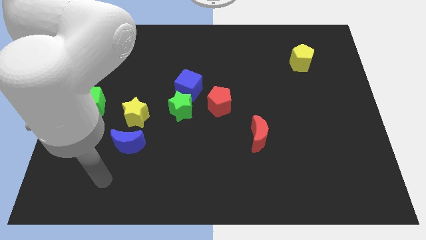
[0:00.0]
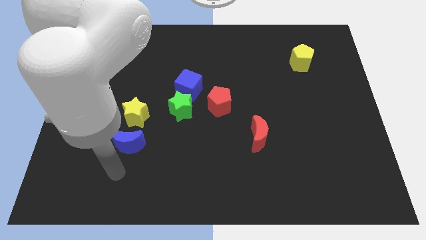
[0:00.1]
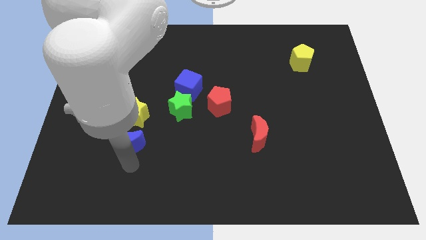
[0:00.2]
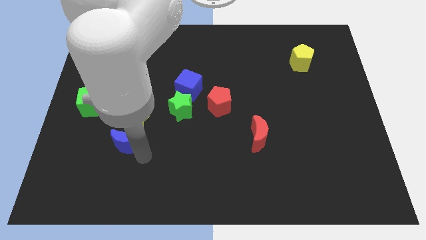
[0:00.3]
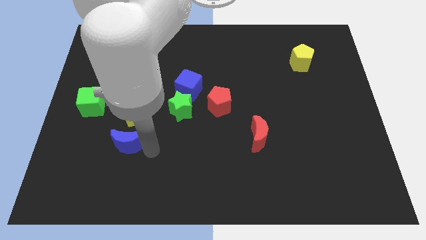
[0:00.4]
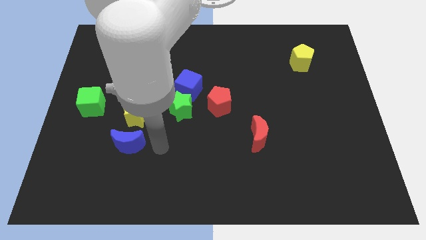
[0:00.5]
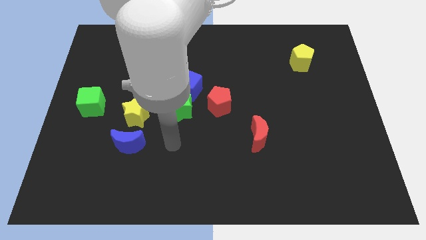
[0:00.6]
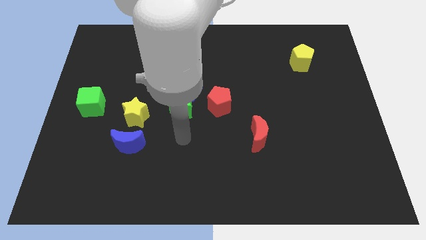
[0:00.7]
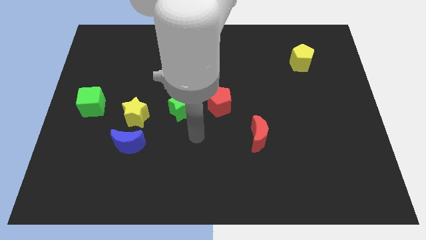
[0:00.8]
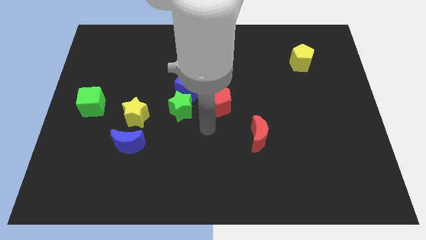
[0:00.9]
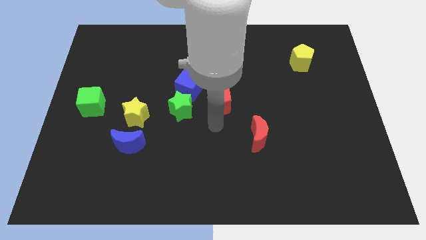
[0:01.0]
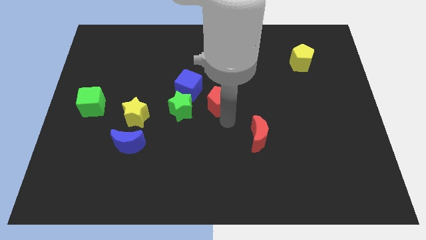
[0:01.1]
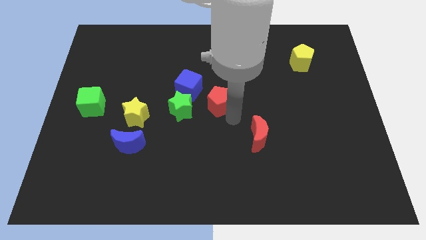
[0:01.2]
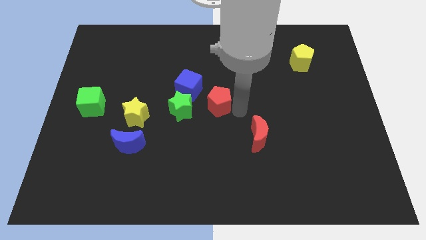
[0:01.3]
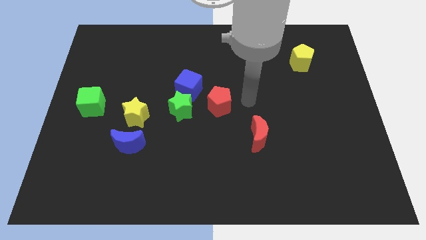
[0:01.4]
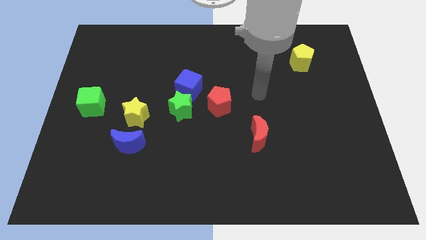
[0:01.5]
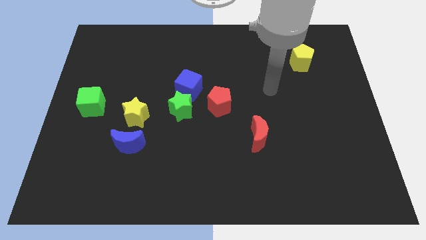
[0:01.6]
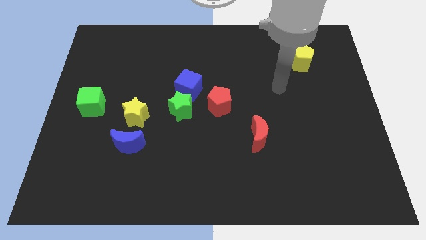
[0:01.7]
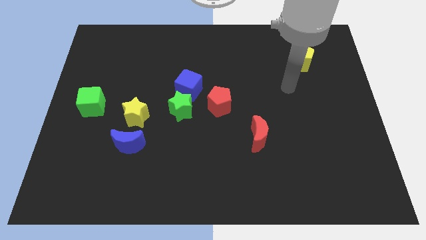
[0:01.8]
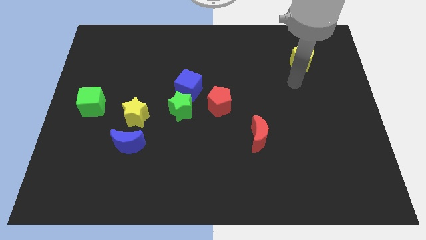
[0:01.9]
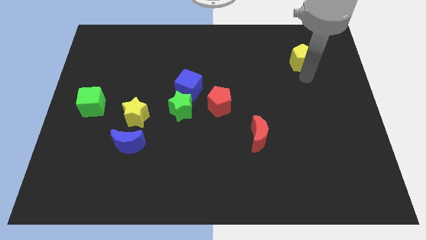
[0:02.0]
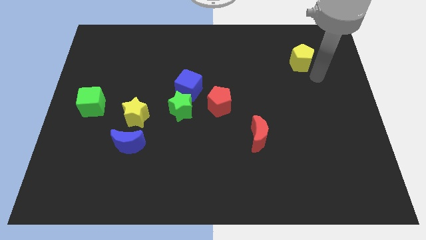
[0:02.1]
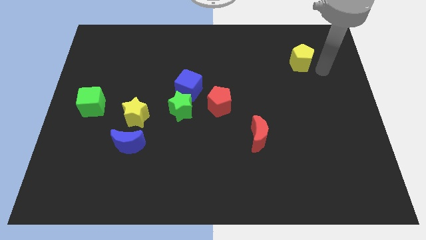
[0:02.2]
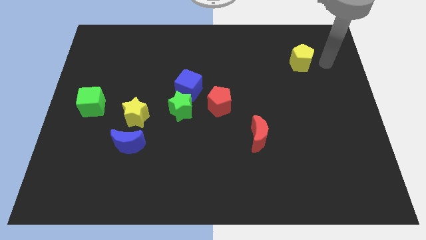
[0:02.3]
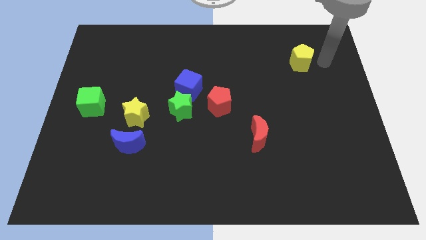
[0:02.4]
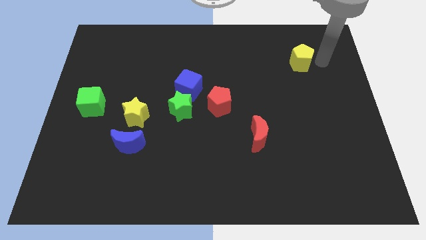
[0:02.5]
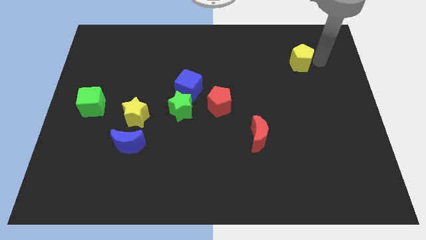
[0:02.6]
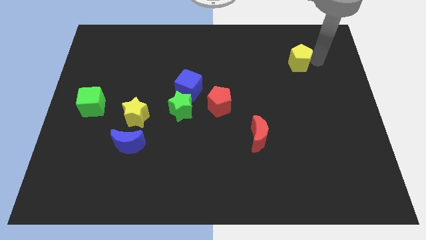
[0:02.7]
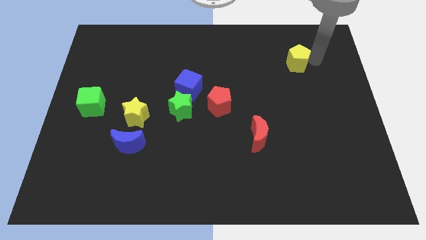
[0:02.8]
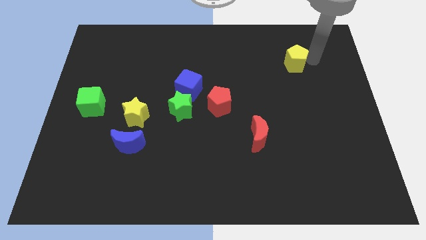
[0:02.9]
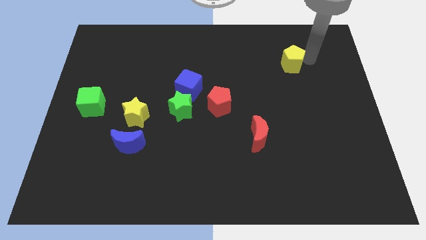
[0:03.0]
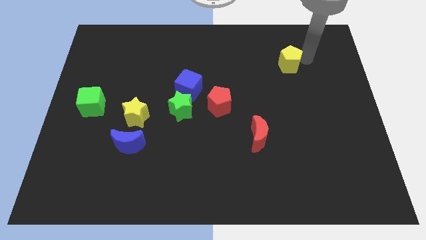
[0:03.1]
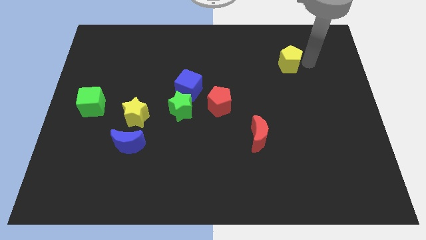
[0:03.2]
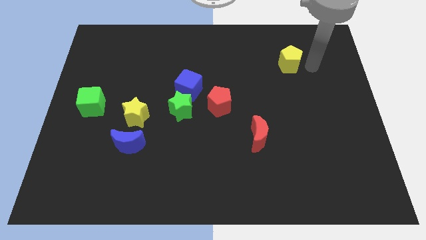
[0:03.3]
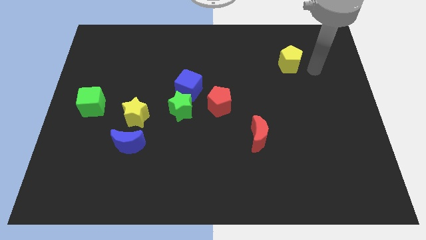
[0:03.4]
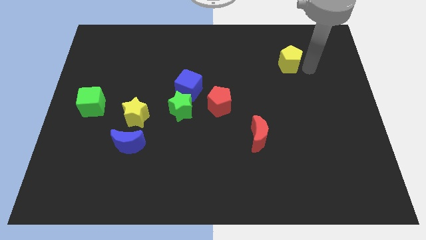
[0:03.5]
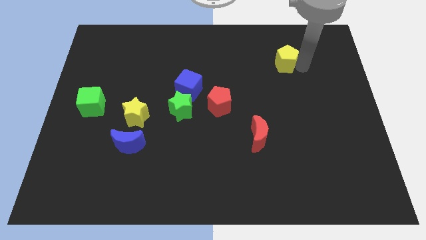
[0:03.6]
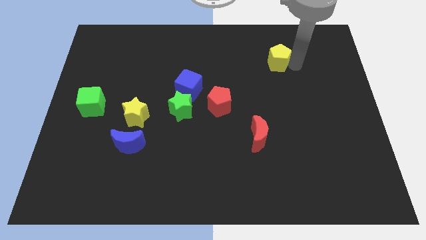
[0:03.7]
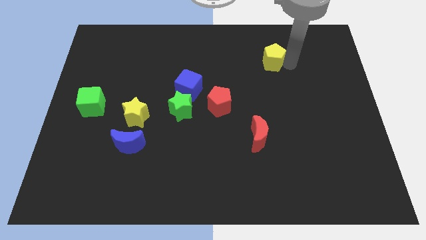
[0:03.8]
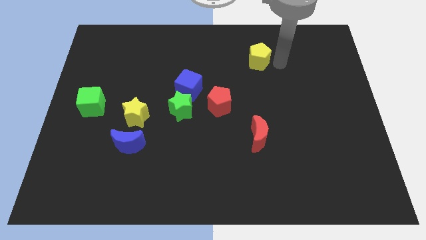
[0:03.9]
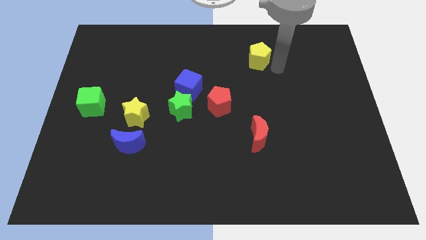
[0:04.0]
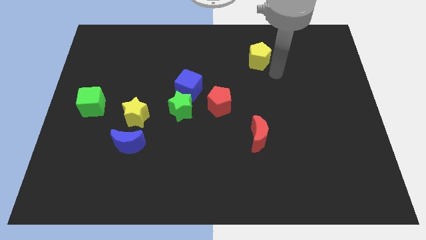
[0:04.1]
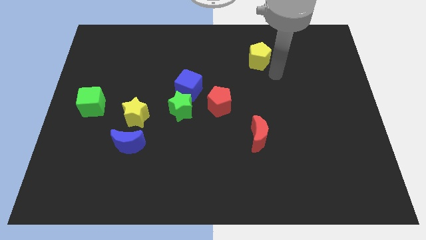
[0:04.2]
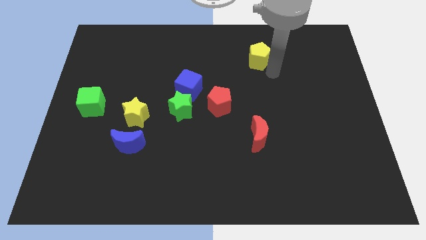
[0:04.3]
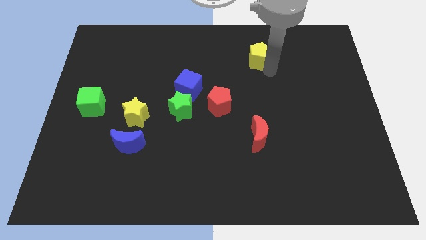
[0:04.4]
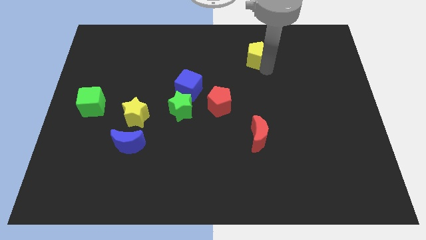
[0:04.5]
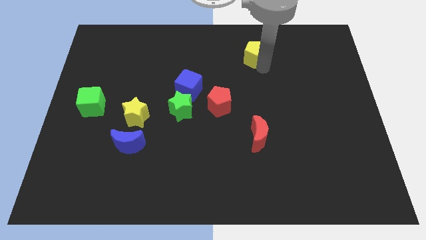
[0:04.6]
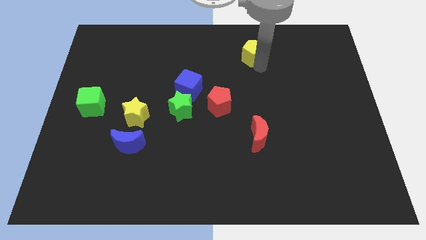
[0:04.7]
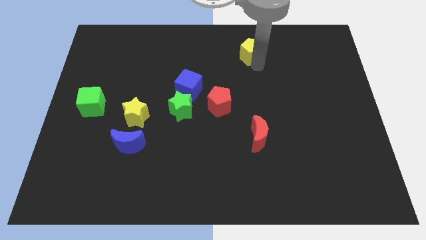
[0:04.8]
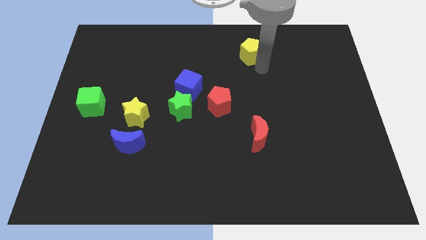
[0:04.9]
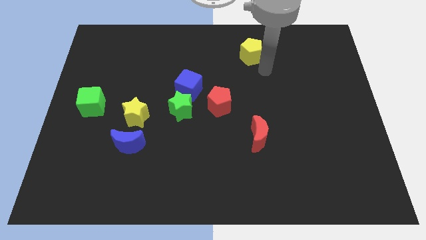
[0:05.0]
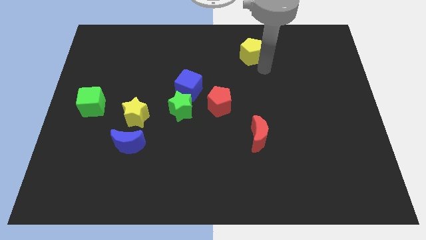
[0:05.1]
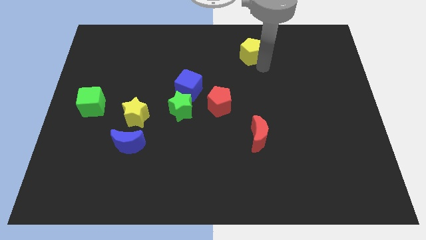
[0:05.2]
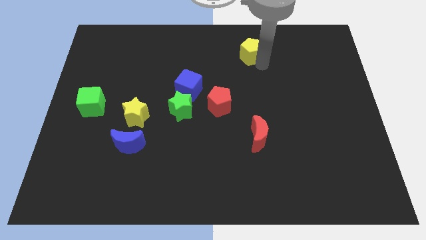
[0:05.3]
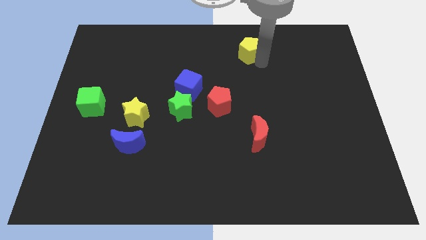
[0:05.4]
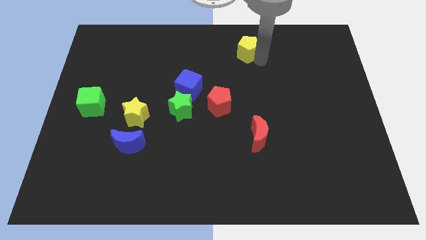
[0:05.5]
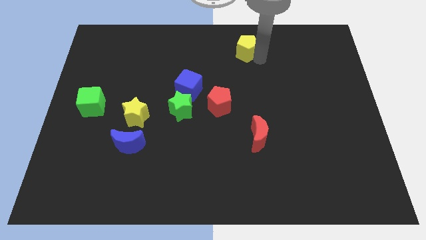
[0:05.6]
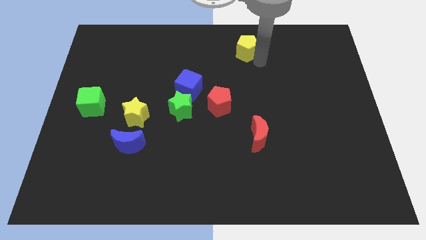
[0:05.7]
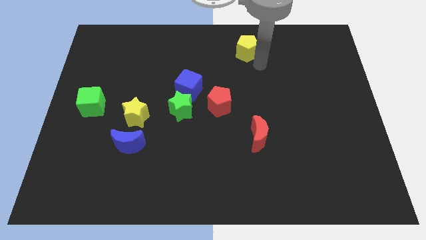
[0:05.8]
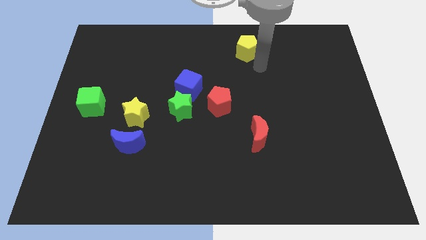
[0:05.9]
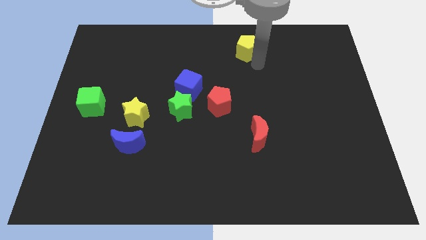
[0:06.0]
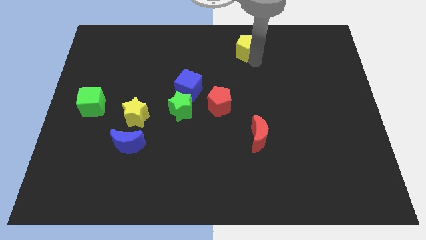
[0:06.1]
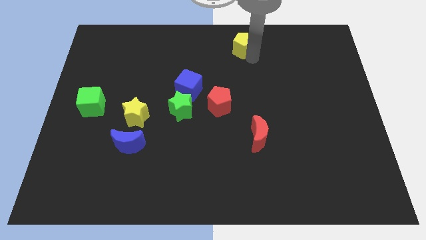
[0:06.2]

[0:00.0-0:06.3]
slide the yellow pentagon to the top
